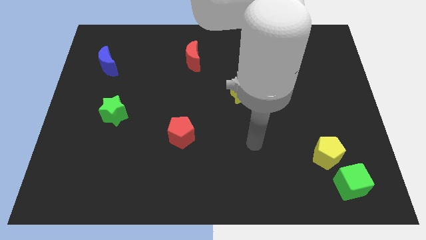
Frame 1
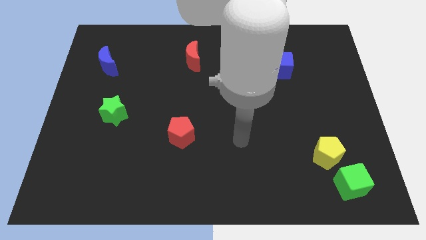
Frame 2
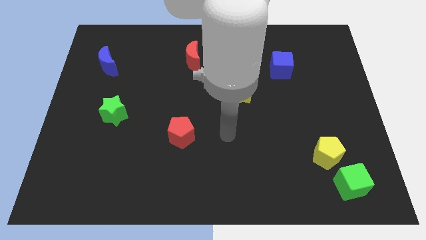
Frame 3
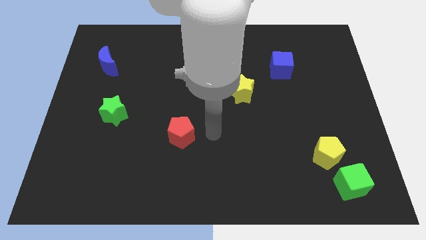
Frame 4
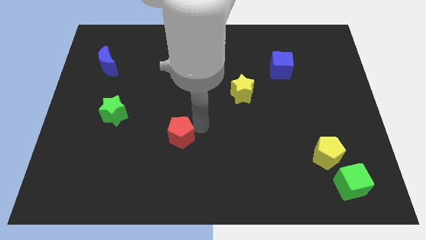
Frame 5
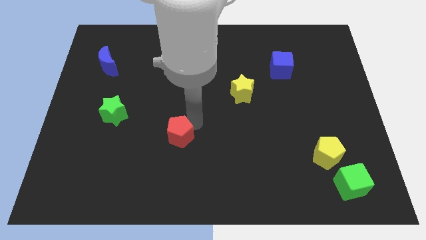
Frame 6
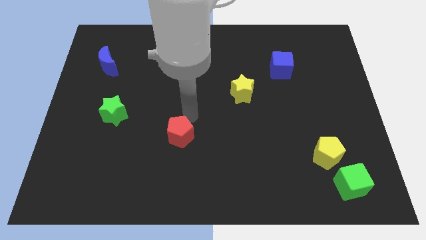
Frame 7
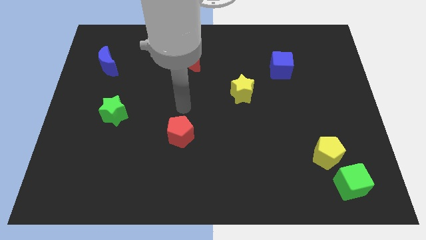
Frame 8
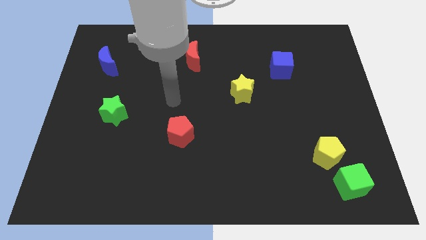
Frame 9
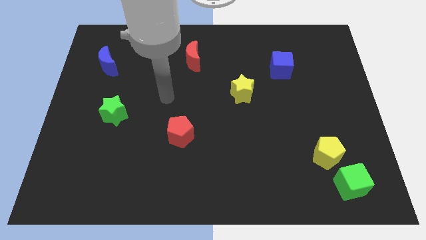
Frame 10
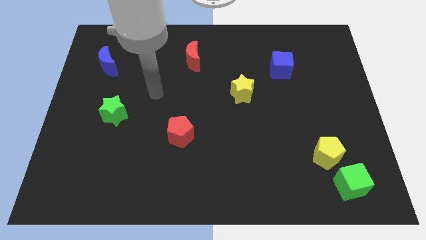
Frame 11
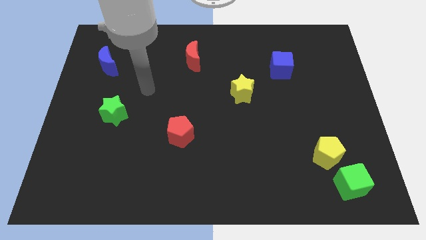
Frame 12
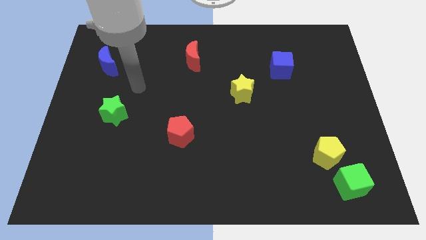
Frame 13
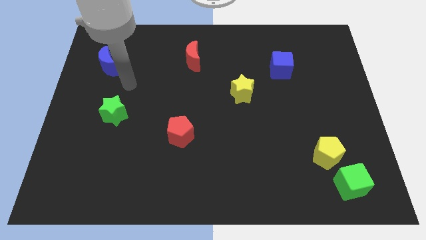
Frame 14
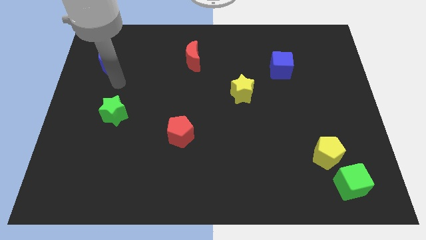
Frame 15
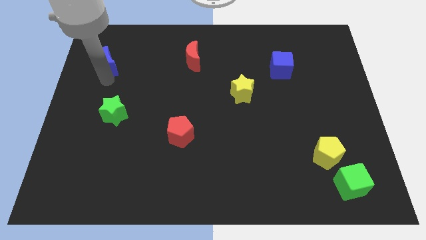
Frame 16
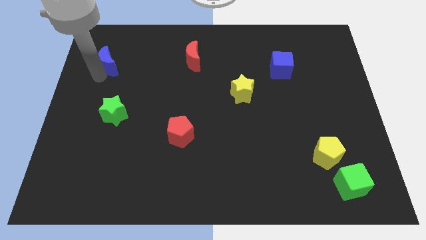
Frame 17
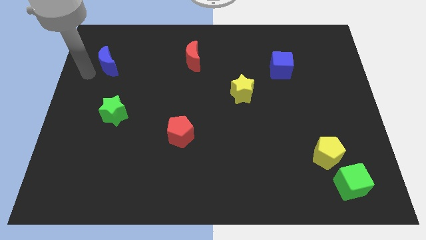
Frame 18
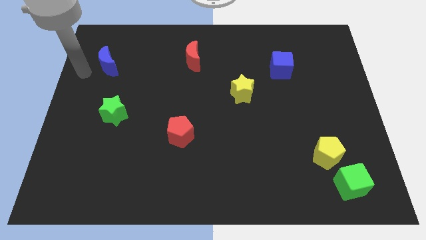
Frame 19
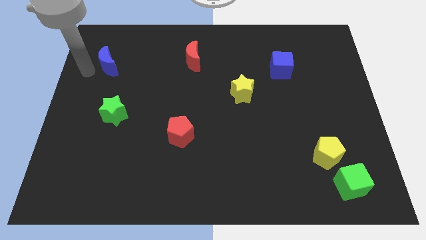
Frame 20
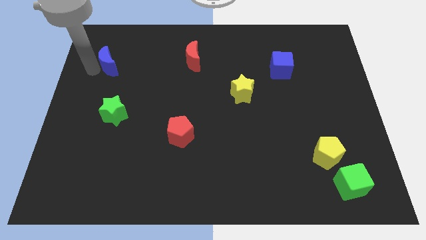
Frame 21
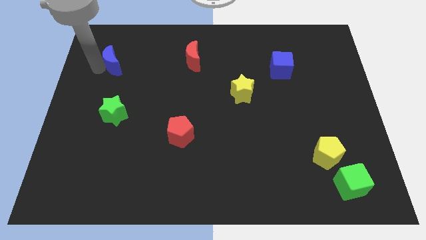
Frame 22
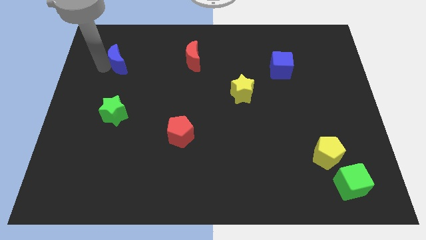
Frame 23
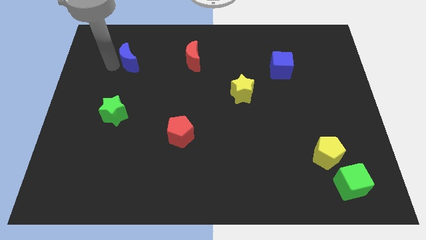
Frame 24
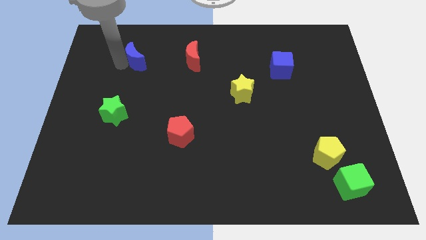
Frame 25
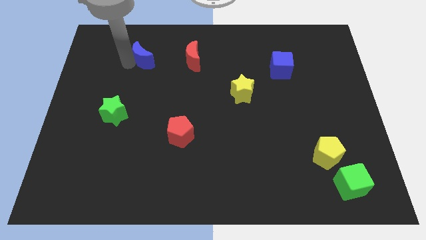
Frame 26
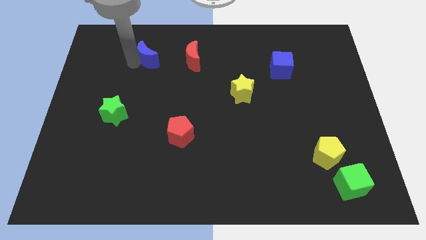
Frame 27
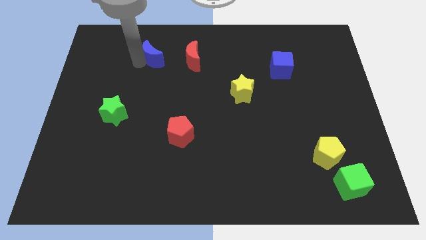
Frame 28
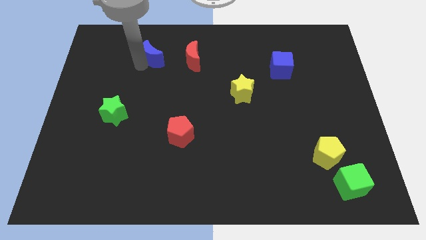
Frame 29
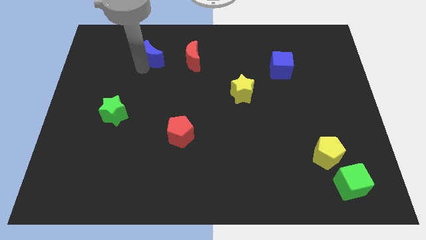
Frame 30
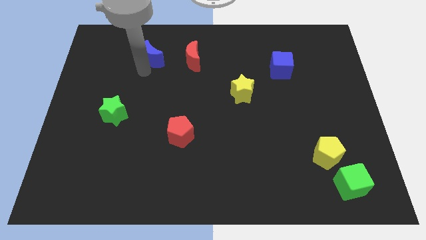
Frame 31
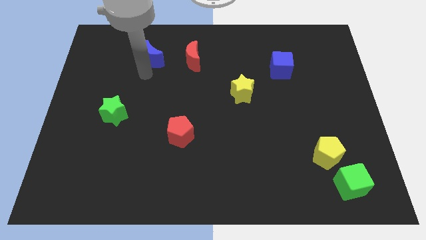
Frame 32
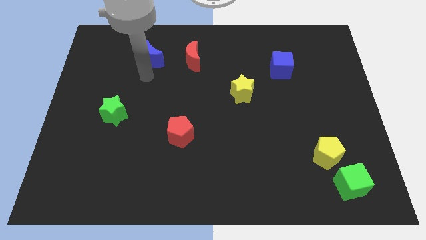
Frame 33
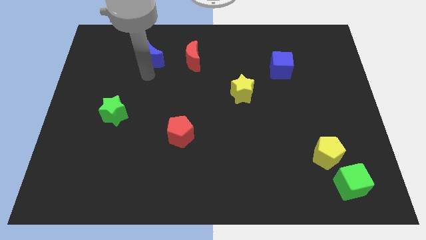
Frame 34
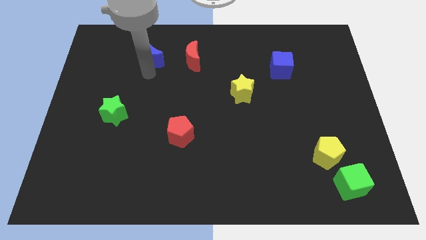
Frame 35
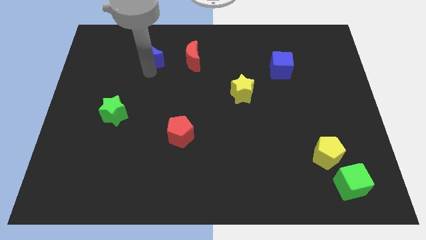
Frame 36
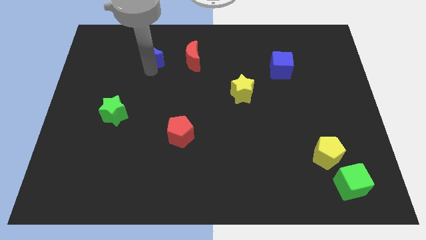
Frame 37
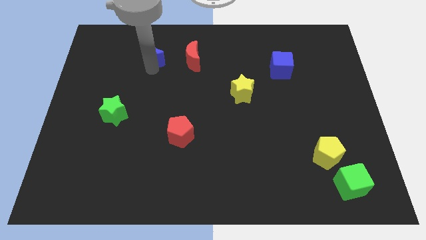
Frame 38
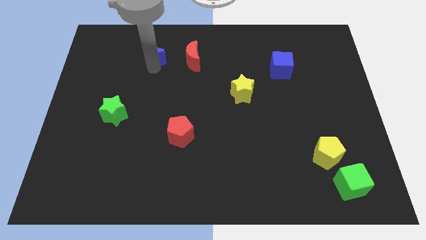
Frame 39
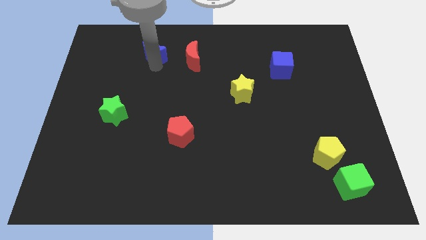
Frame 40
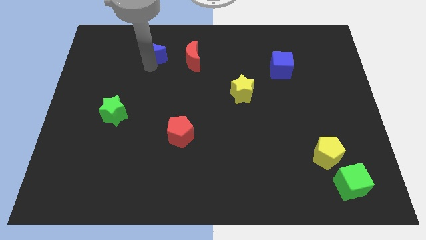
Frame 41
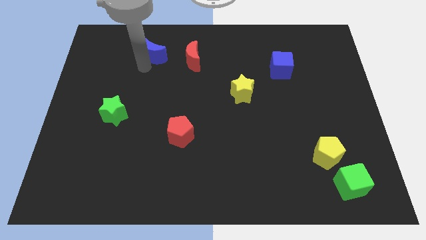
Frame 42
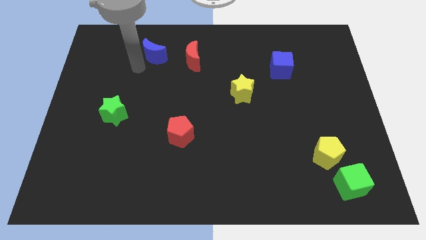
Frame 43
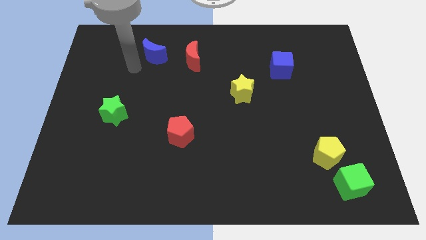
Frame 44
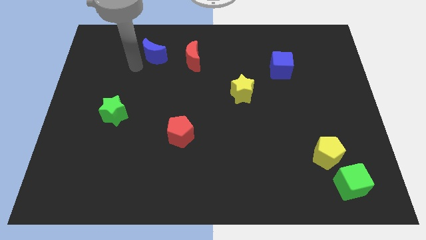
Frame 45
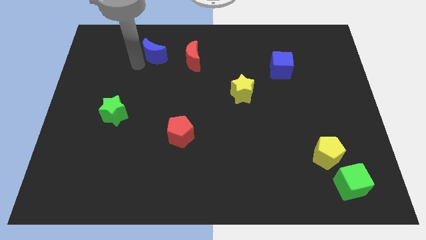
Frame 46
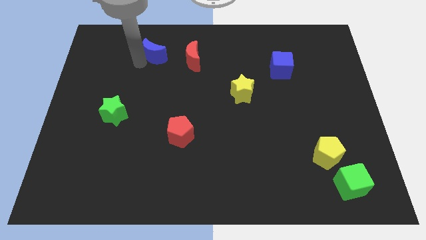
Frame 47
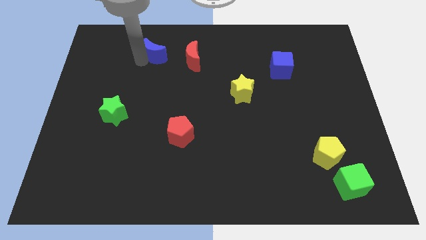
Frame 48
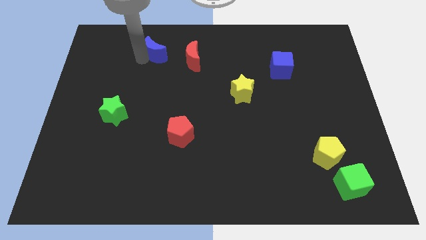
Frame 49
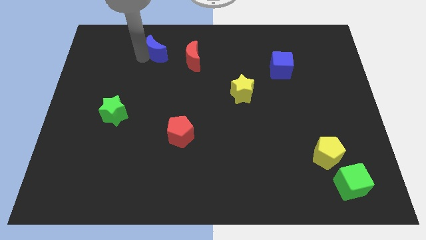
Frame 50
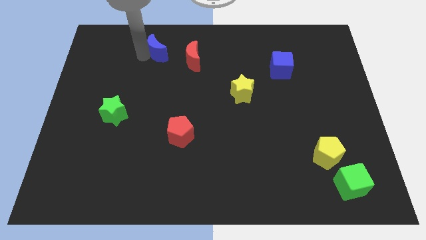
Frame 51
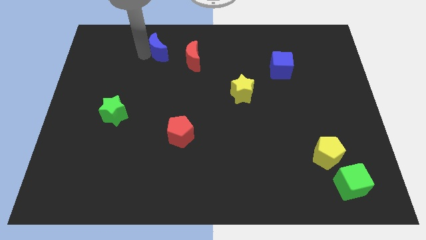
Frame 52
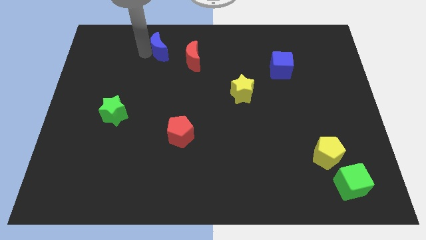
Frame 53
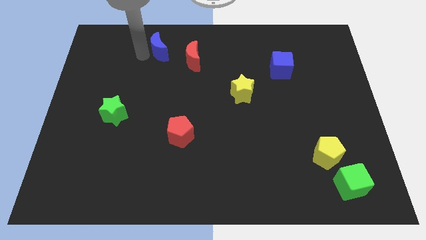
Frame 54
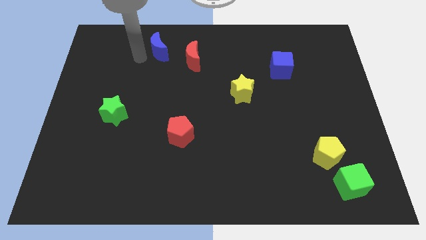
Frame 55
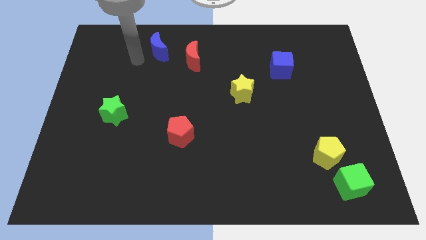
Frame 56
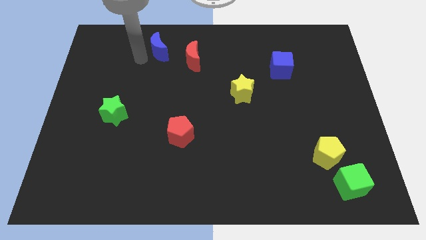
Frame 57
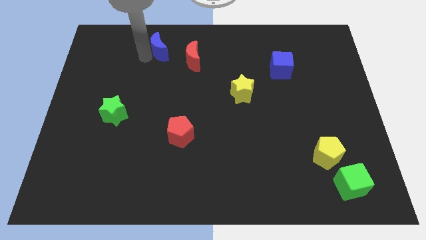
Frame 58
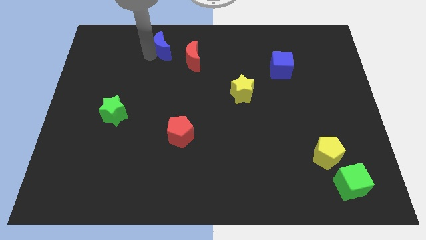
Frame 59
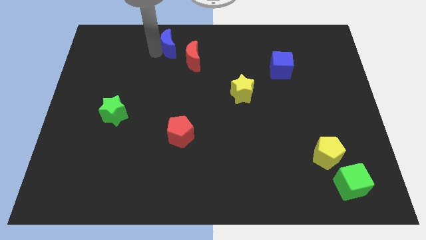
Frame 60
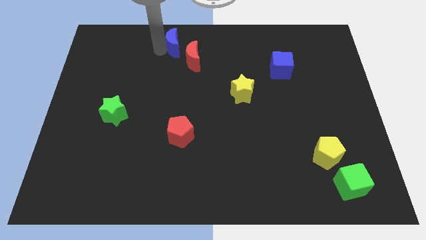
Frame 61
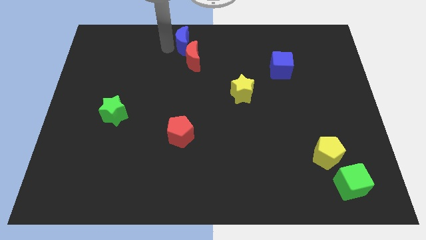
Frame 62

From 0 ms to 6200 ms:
put the blue moon to the top
